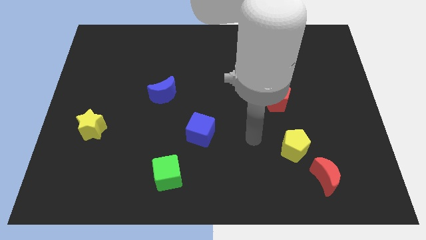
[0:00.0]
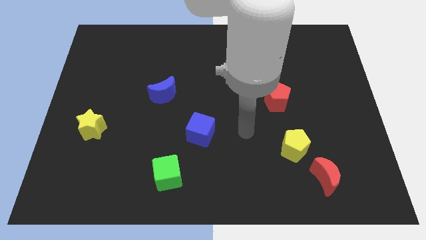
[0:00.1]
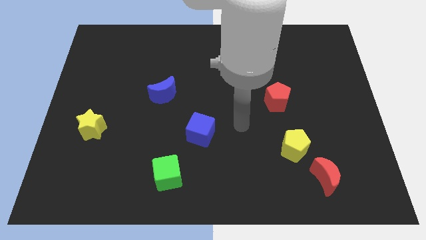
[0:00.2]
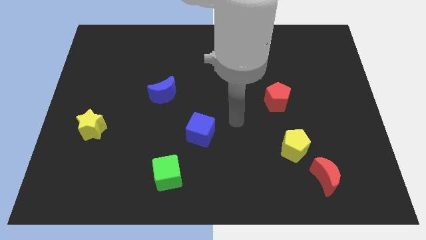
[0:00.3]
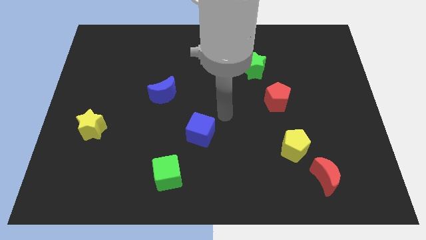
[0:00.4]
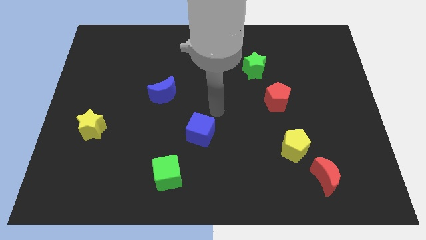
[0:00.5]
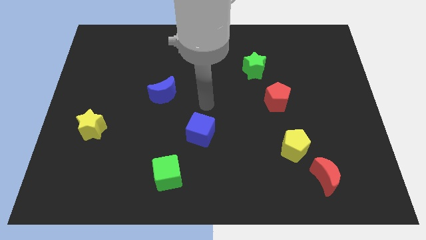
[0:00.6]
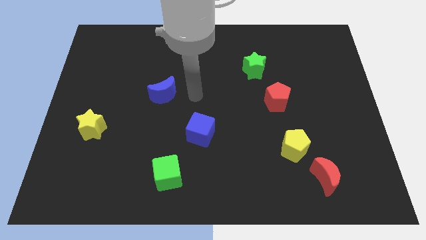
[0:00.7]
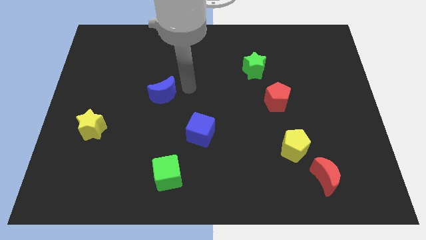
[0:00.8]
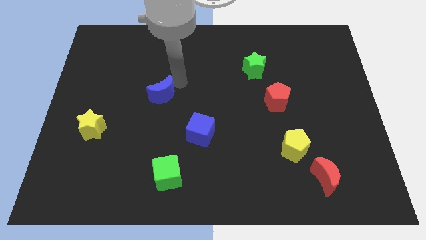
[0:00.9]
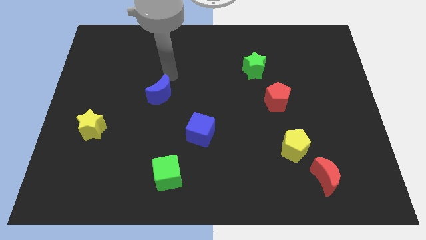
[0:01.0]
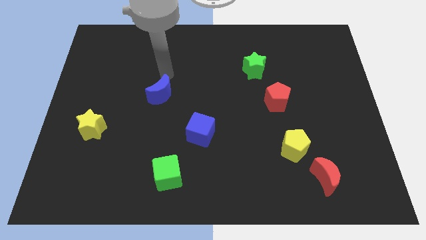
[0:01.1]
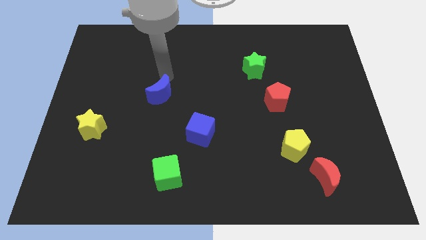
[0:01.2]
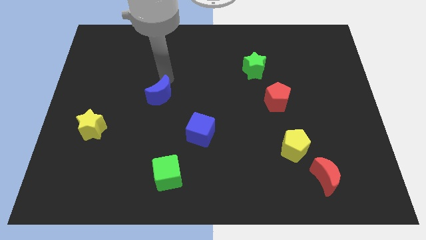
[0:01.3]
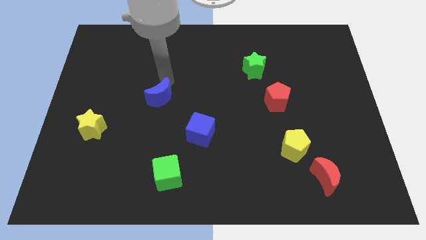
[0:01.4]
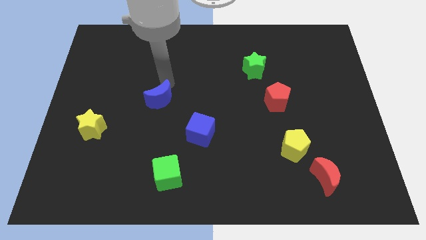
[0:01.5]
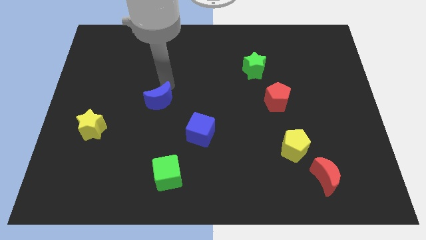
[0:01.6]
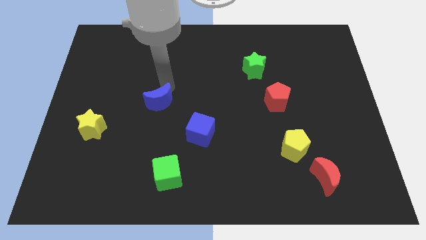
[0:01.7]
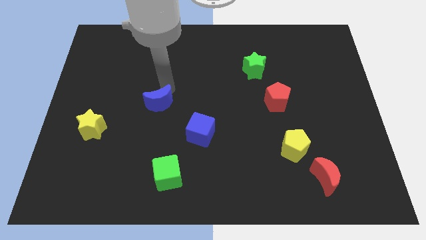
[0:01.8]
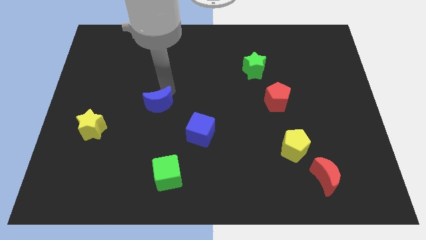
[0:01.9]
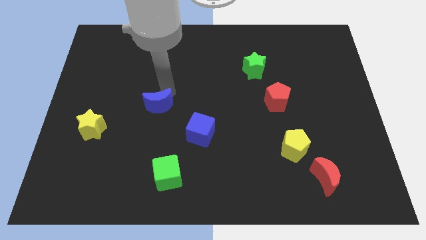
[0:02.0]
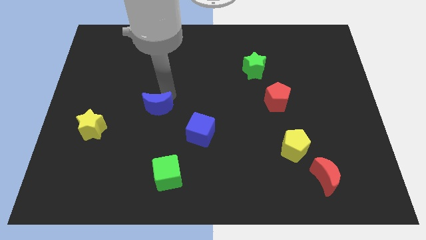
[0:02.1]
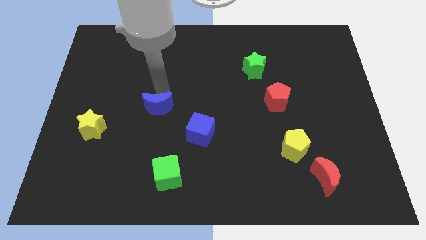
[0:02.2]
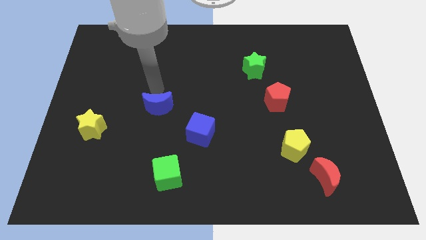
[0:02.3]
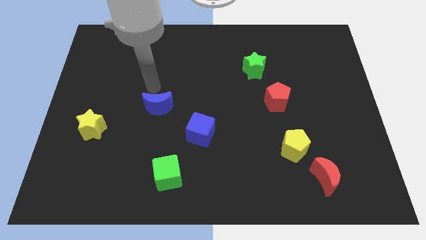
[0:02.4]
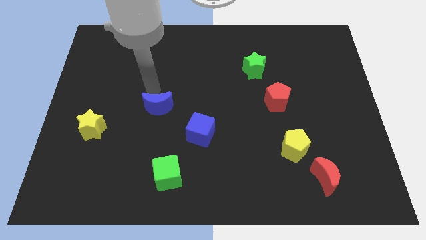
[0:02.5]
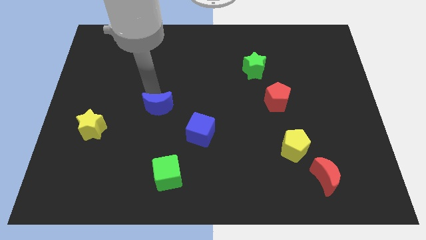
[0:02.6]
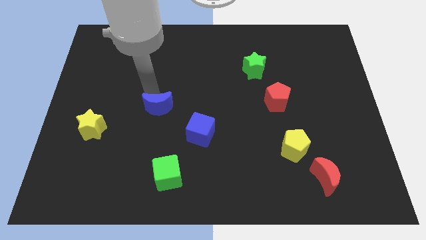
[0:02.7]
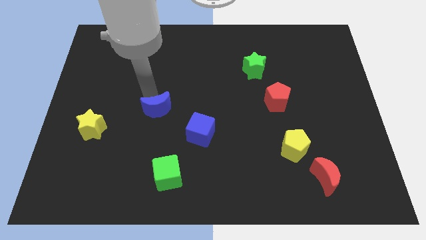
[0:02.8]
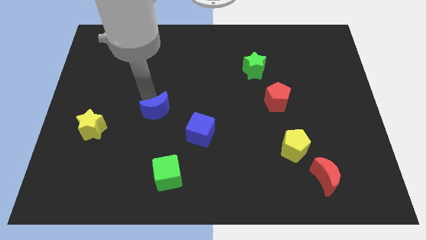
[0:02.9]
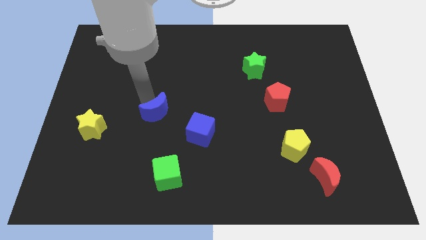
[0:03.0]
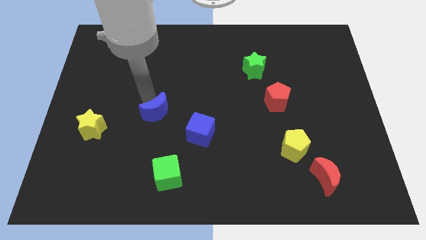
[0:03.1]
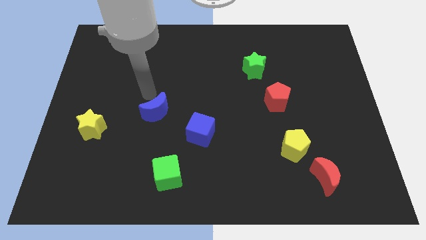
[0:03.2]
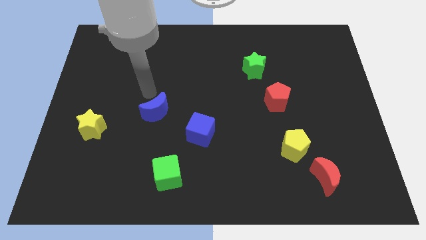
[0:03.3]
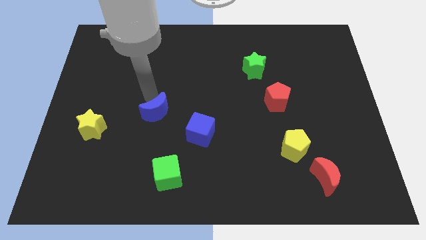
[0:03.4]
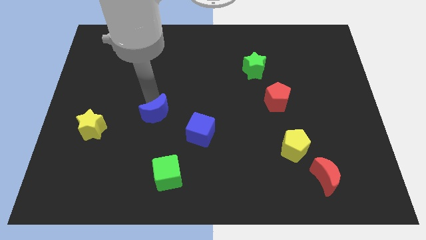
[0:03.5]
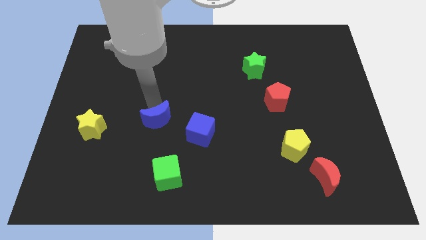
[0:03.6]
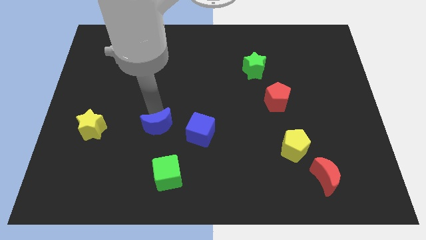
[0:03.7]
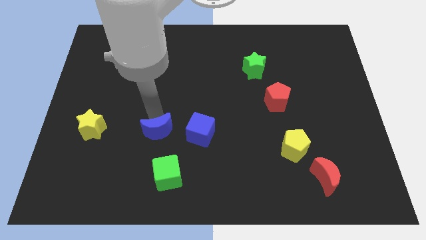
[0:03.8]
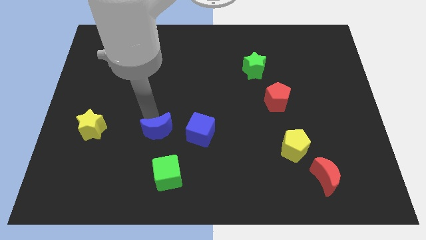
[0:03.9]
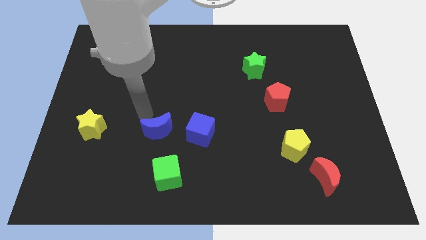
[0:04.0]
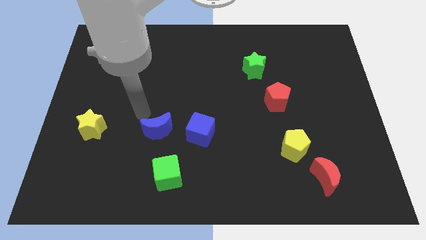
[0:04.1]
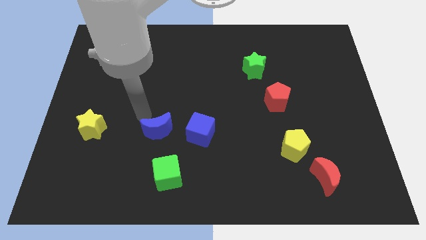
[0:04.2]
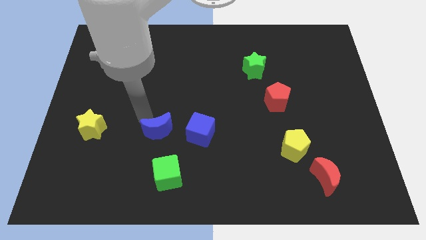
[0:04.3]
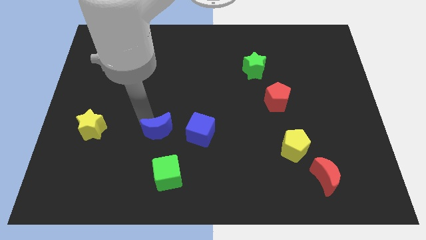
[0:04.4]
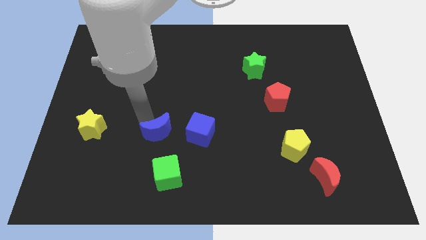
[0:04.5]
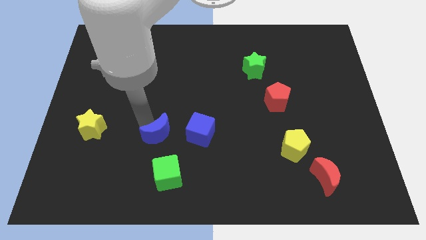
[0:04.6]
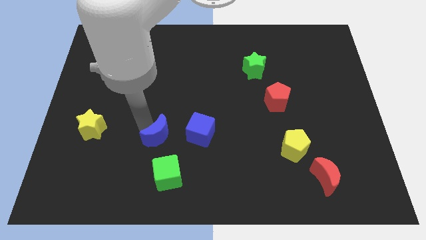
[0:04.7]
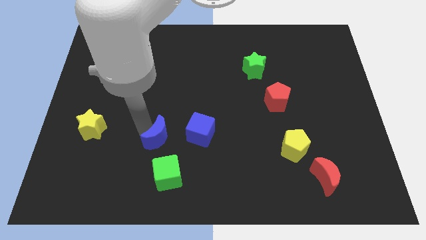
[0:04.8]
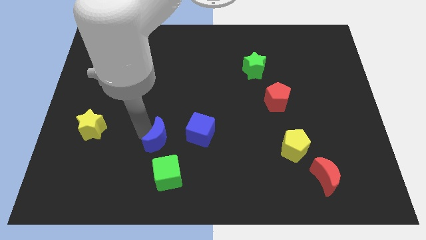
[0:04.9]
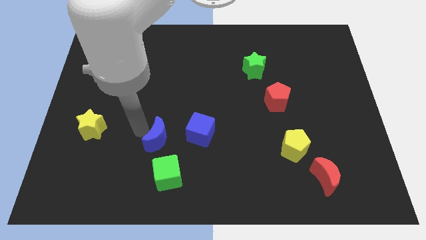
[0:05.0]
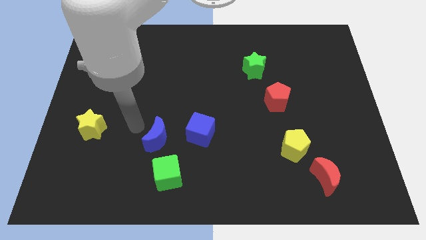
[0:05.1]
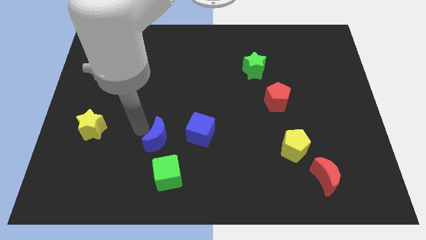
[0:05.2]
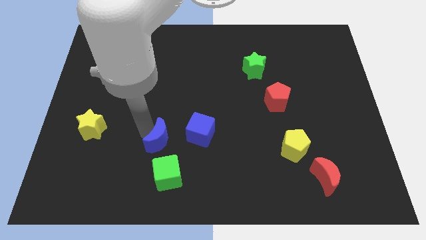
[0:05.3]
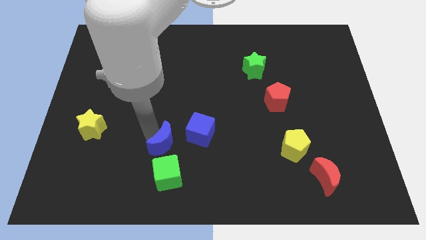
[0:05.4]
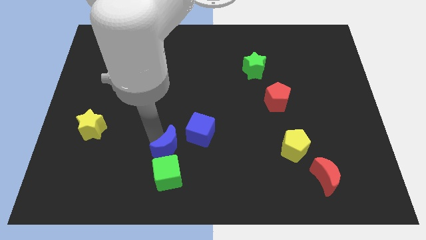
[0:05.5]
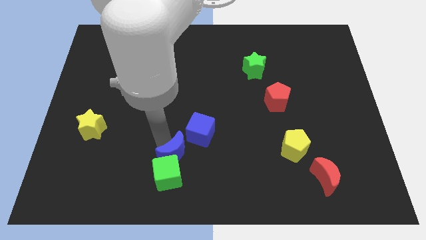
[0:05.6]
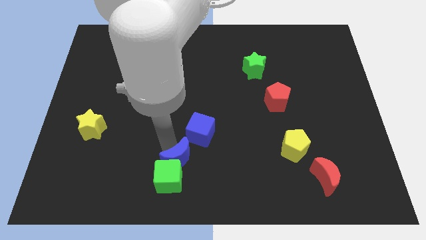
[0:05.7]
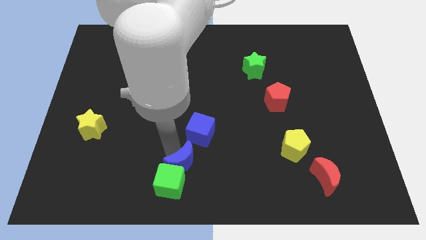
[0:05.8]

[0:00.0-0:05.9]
push the blue moon to the bottom
